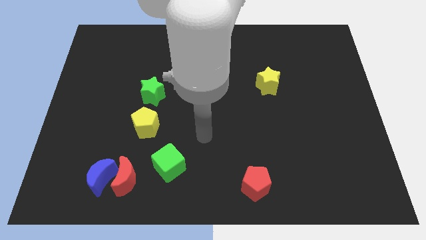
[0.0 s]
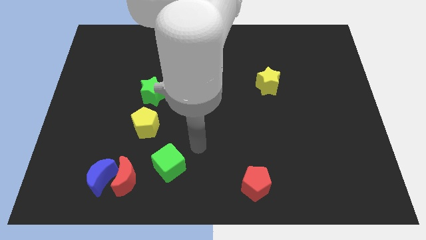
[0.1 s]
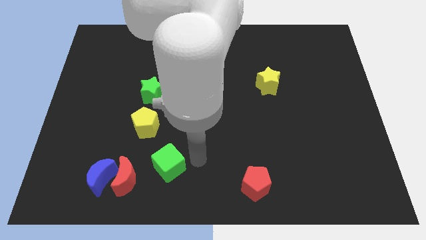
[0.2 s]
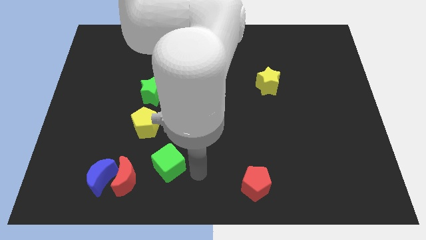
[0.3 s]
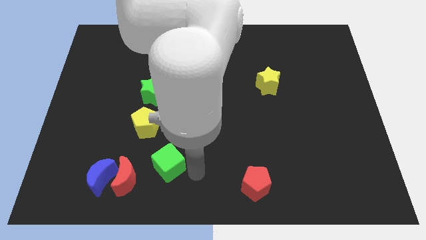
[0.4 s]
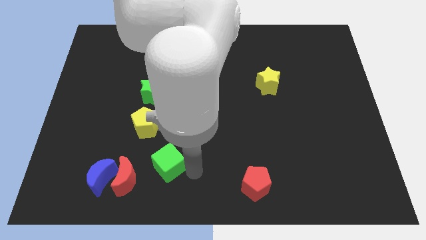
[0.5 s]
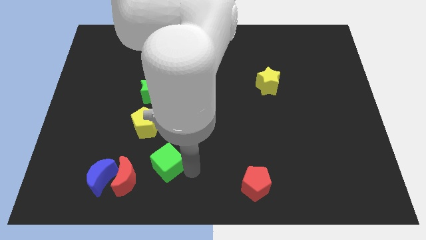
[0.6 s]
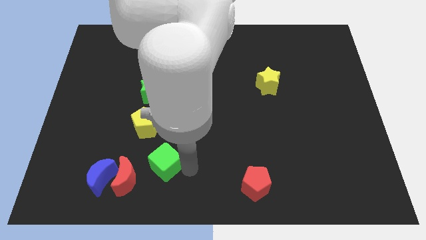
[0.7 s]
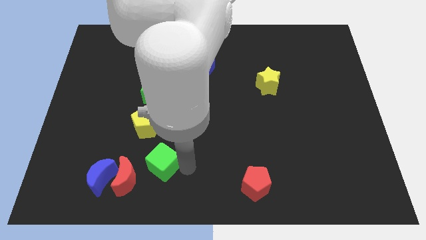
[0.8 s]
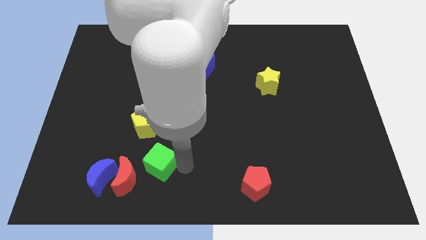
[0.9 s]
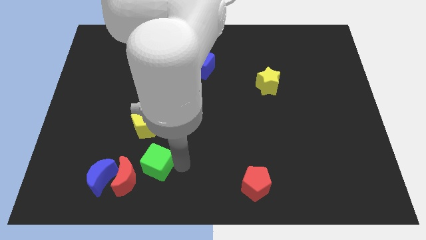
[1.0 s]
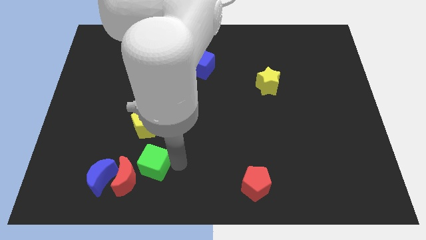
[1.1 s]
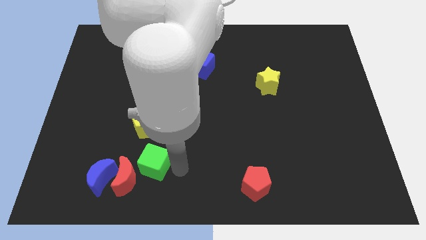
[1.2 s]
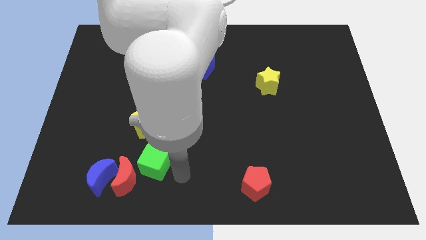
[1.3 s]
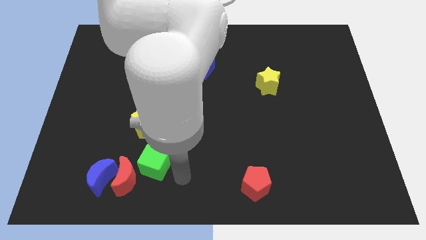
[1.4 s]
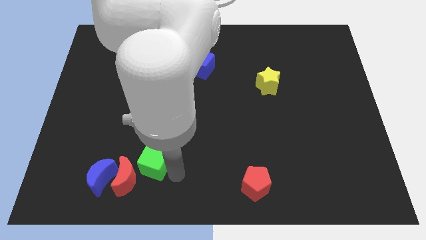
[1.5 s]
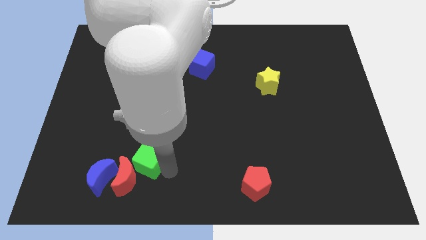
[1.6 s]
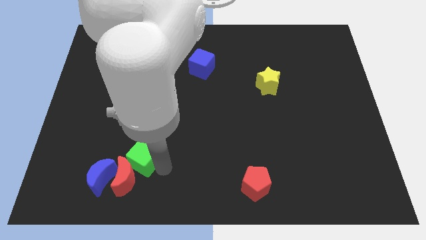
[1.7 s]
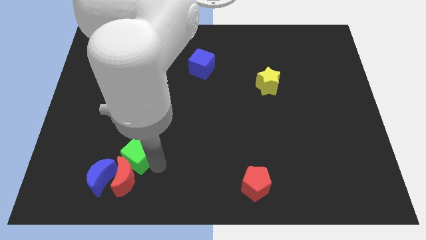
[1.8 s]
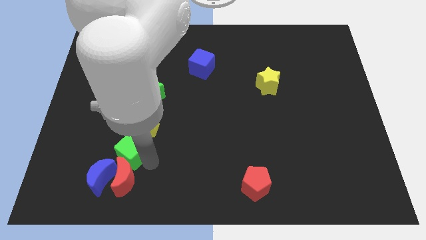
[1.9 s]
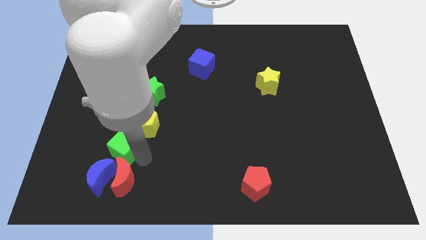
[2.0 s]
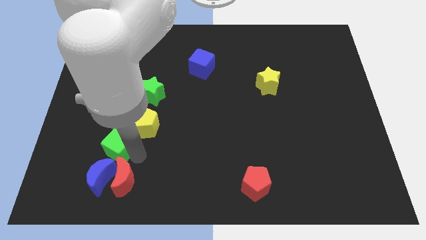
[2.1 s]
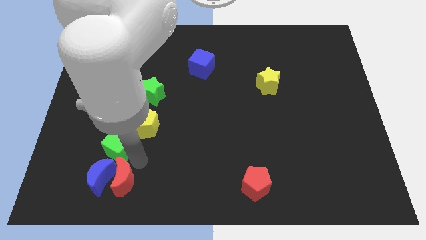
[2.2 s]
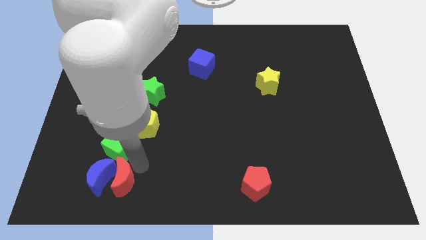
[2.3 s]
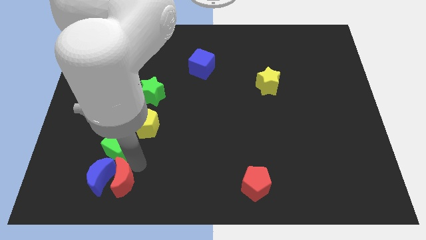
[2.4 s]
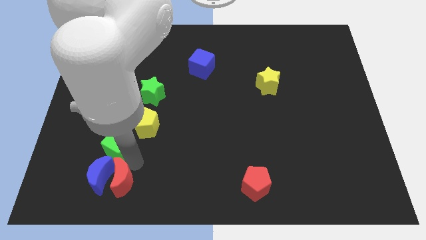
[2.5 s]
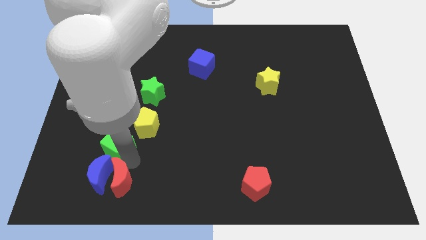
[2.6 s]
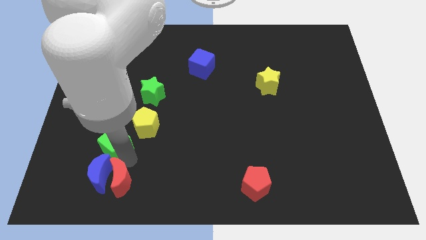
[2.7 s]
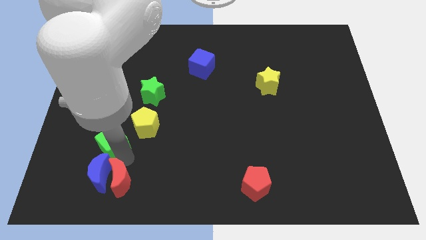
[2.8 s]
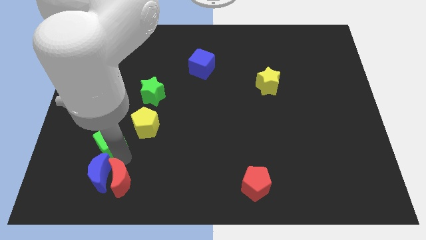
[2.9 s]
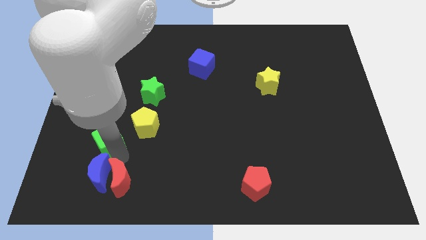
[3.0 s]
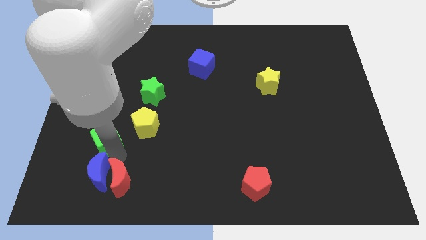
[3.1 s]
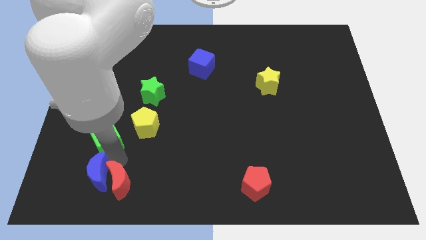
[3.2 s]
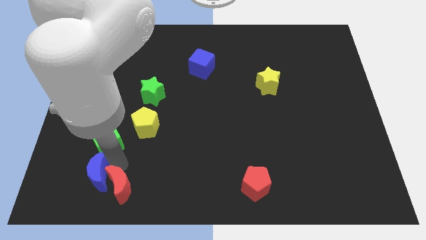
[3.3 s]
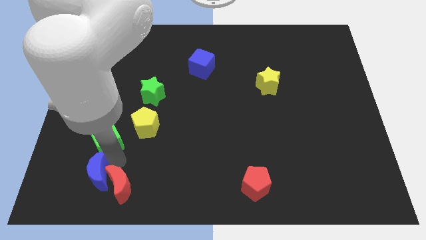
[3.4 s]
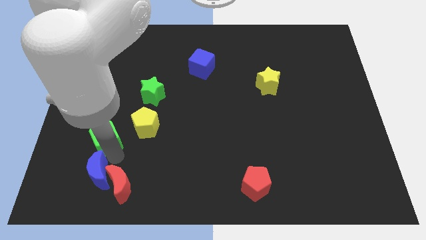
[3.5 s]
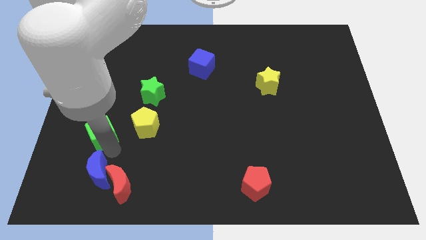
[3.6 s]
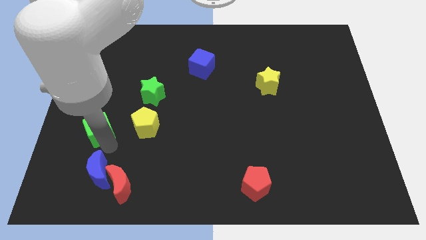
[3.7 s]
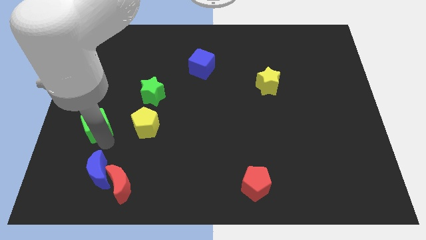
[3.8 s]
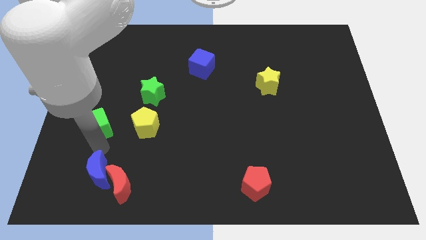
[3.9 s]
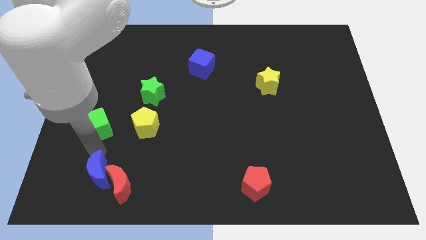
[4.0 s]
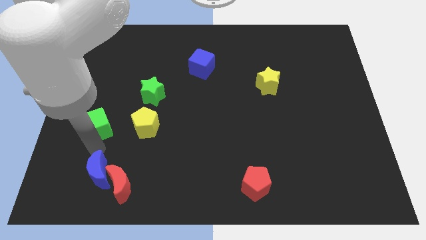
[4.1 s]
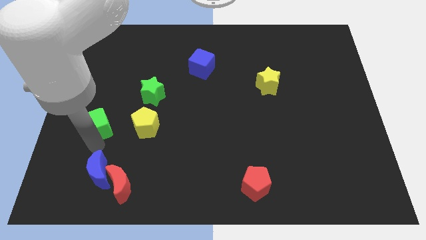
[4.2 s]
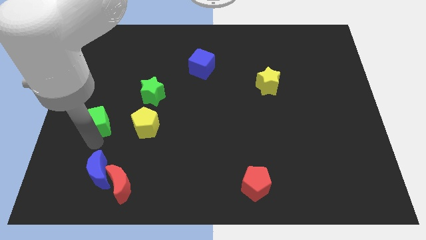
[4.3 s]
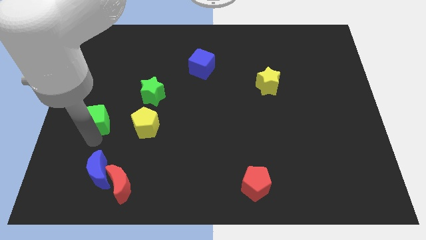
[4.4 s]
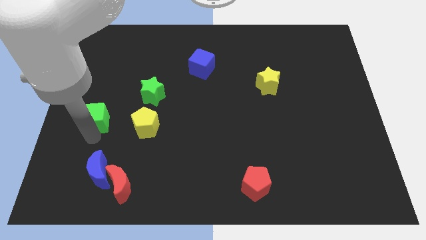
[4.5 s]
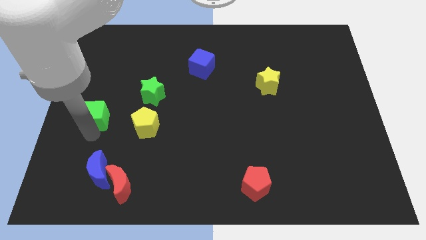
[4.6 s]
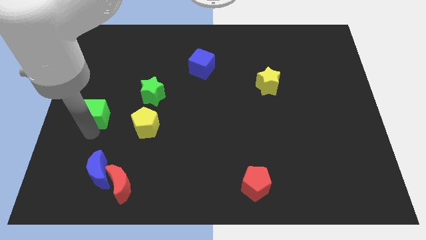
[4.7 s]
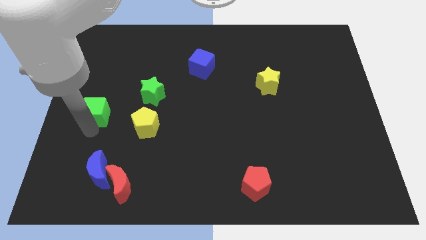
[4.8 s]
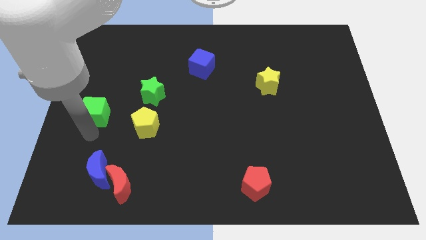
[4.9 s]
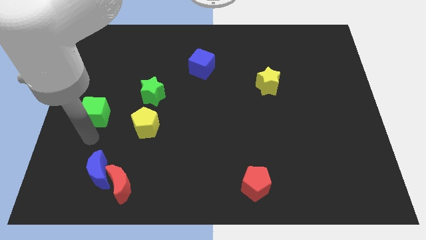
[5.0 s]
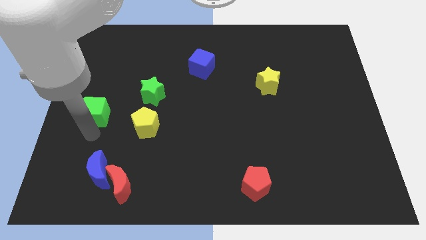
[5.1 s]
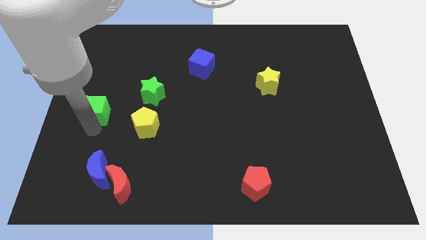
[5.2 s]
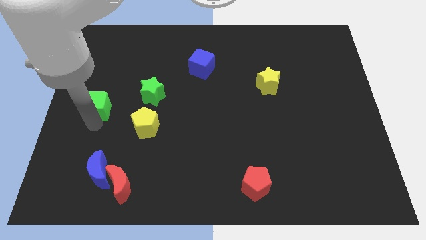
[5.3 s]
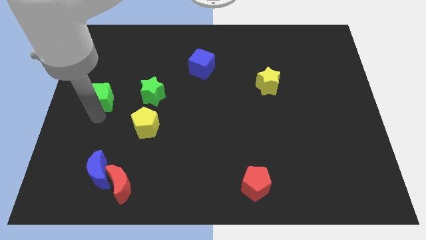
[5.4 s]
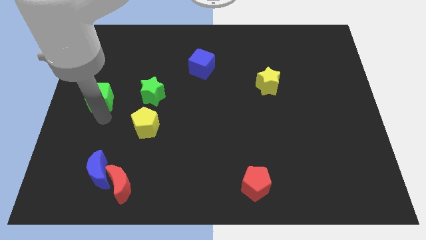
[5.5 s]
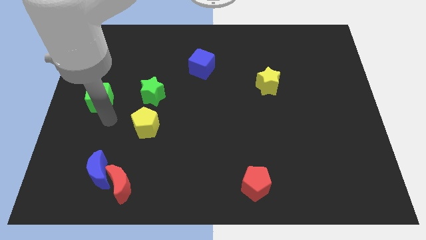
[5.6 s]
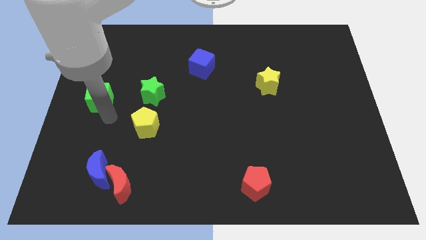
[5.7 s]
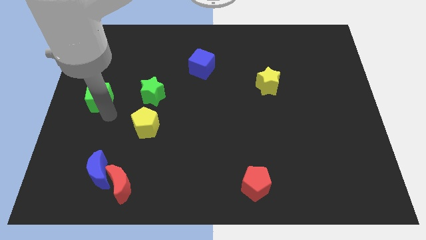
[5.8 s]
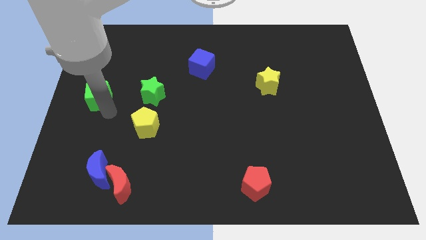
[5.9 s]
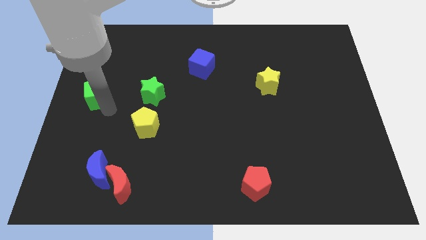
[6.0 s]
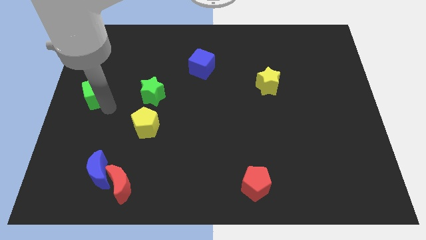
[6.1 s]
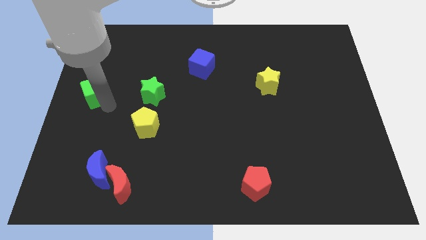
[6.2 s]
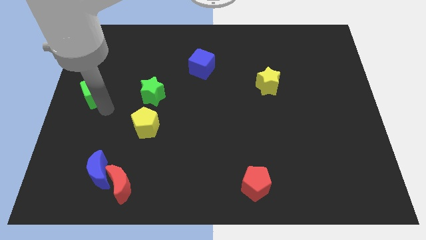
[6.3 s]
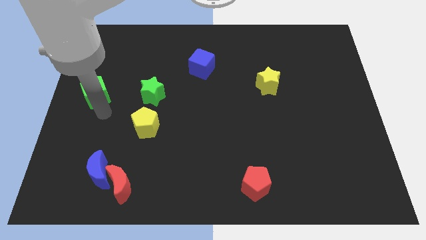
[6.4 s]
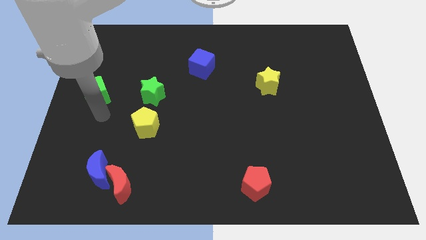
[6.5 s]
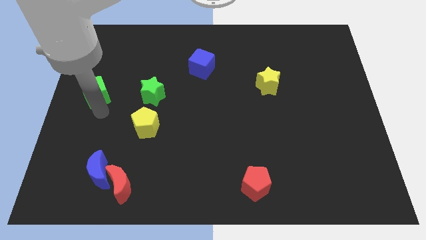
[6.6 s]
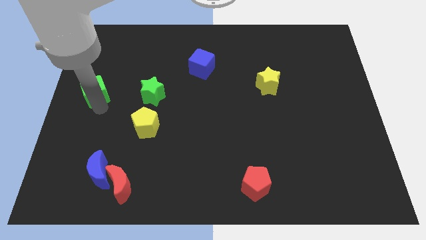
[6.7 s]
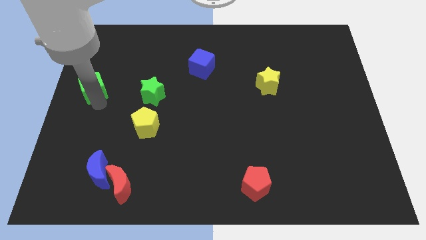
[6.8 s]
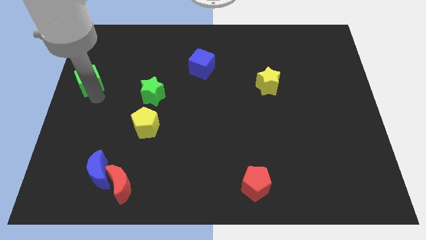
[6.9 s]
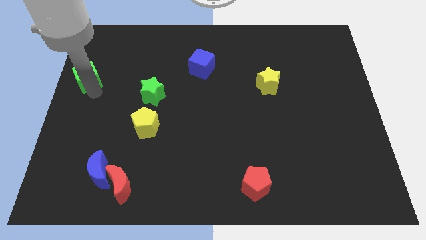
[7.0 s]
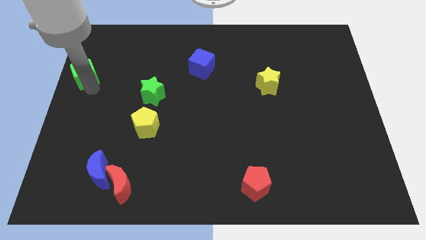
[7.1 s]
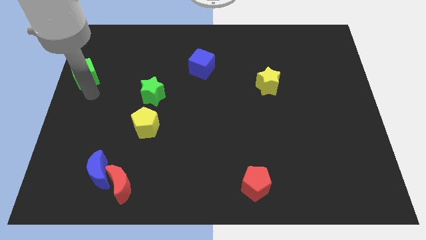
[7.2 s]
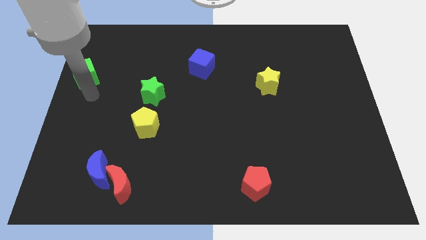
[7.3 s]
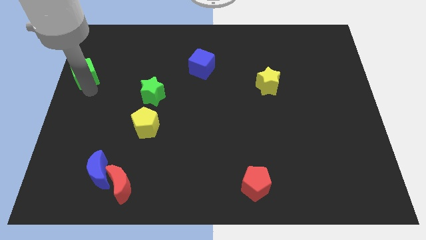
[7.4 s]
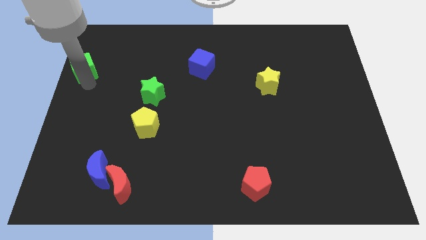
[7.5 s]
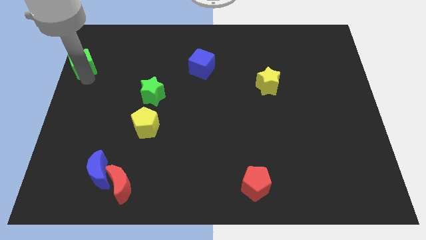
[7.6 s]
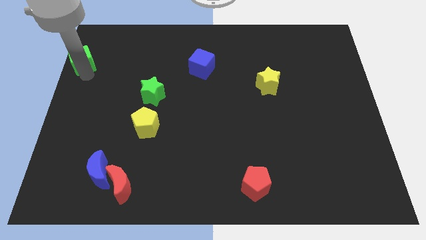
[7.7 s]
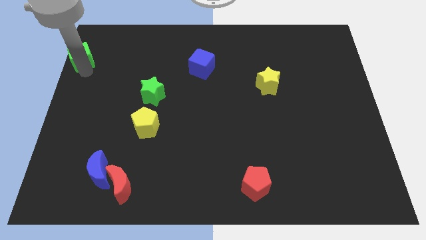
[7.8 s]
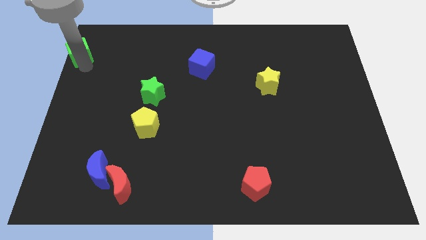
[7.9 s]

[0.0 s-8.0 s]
slide the green cube to the top left
